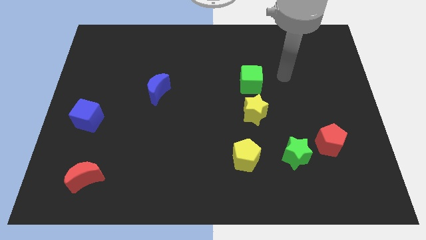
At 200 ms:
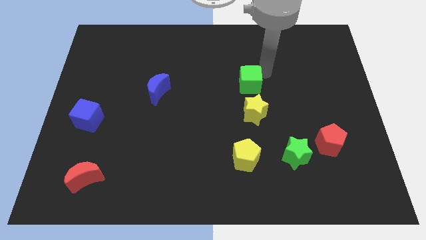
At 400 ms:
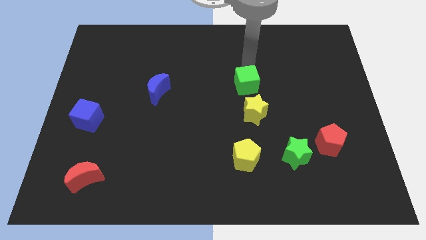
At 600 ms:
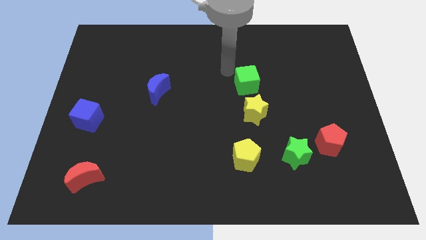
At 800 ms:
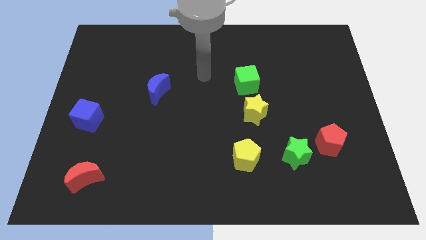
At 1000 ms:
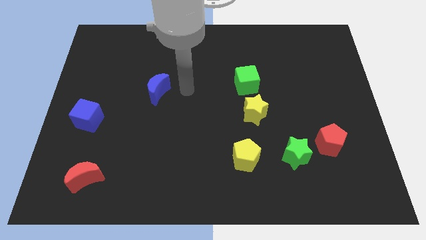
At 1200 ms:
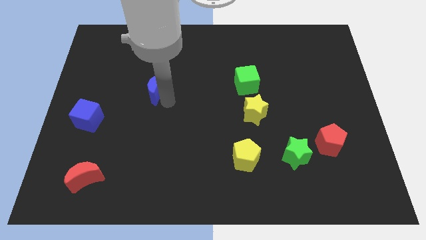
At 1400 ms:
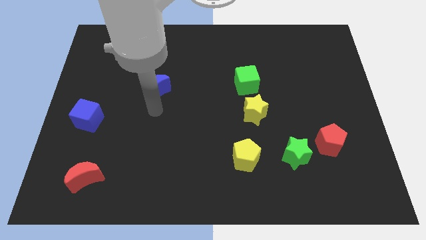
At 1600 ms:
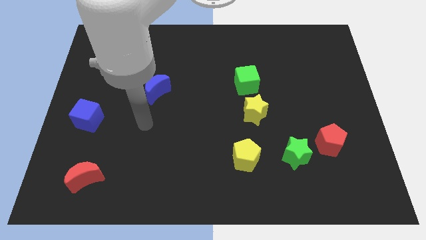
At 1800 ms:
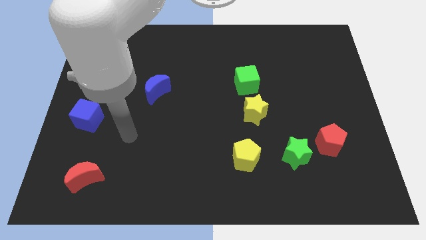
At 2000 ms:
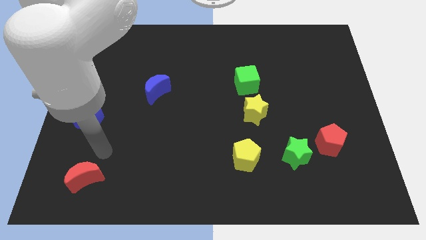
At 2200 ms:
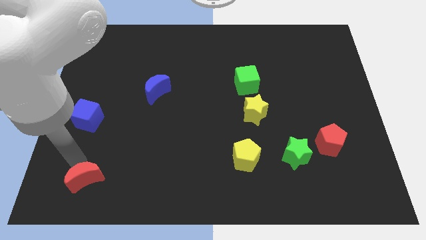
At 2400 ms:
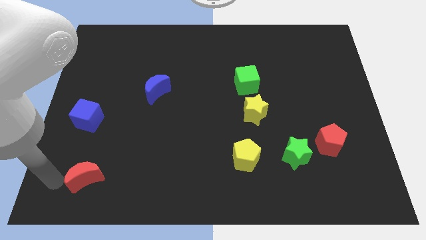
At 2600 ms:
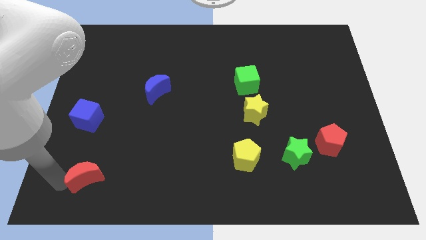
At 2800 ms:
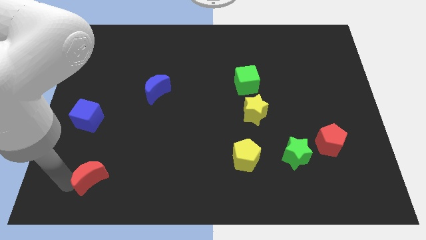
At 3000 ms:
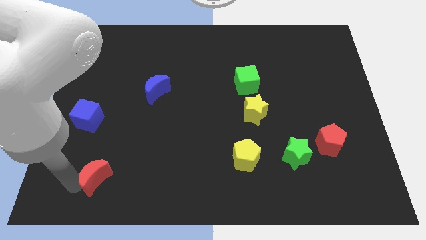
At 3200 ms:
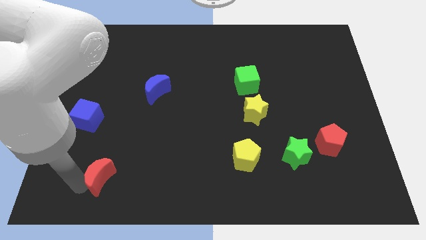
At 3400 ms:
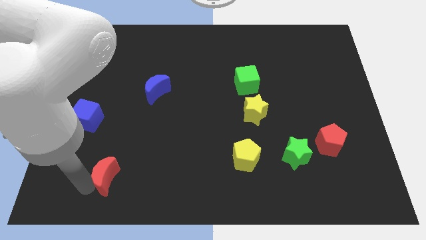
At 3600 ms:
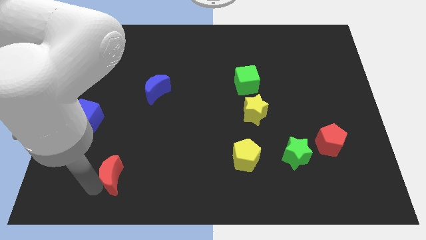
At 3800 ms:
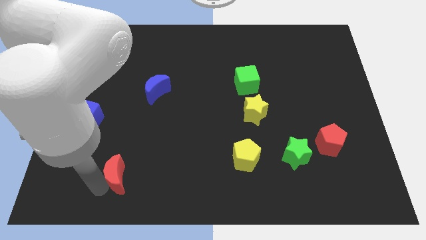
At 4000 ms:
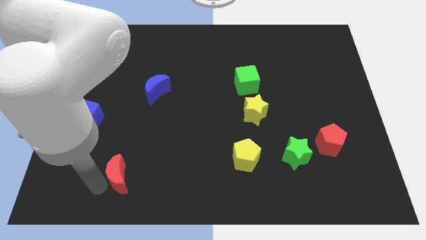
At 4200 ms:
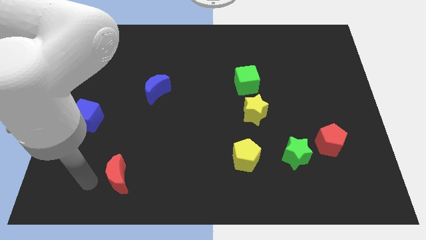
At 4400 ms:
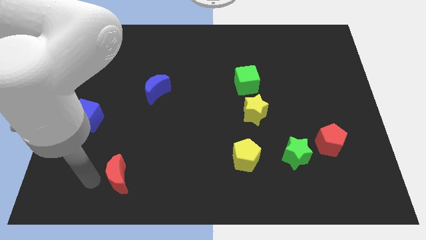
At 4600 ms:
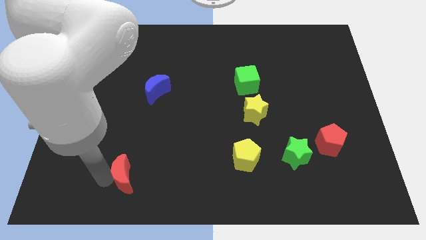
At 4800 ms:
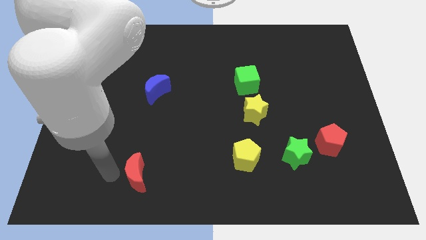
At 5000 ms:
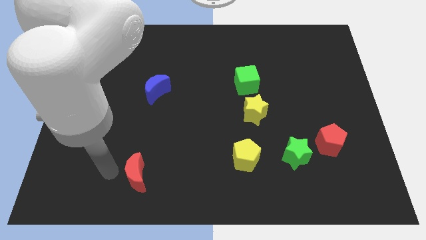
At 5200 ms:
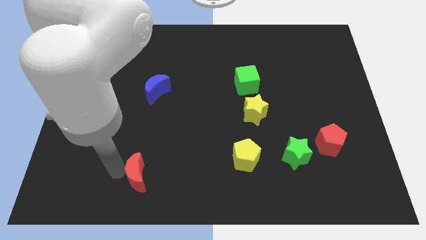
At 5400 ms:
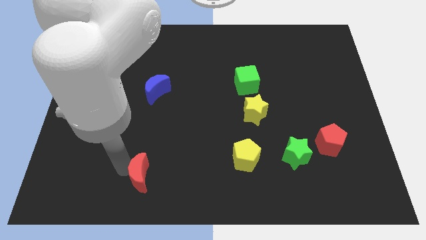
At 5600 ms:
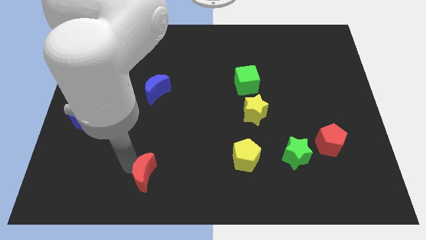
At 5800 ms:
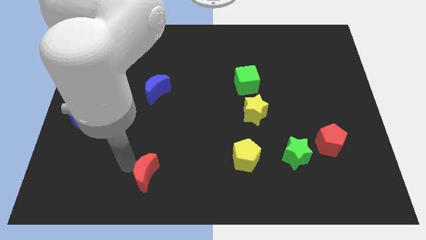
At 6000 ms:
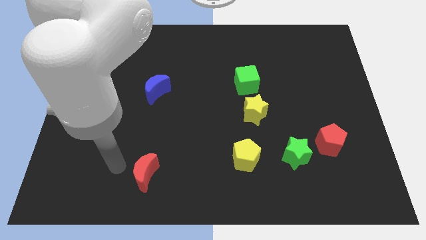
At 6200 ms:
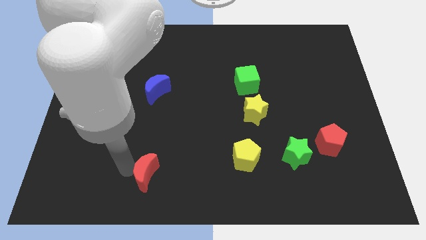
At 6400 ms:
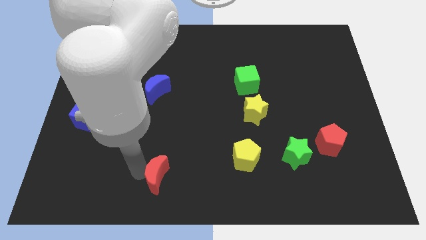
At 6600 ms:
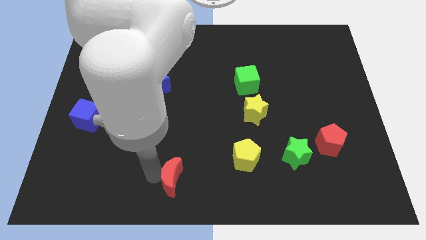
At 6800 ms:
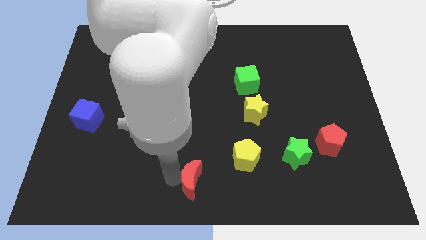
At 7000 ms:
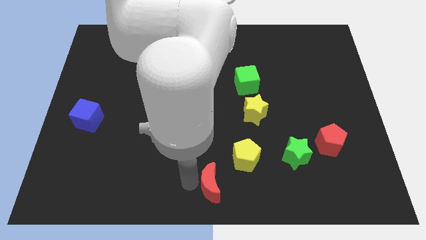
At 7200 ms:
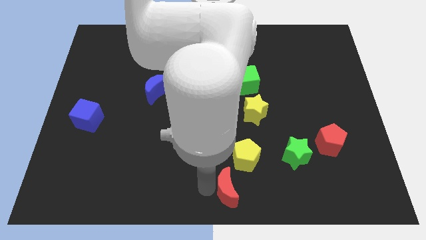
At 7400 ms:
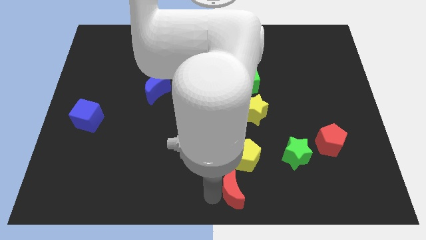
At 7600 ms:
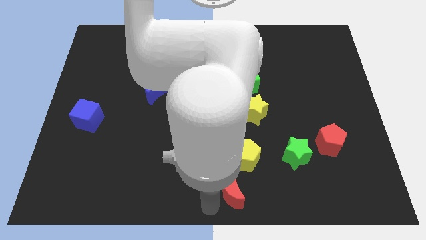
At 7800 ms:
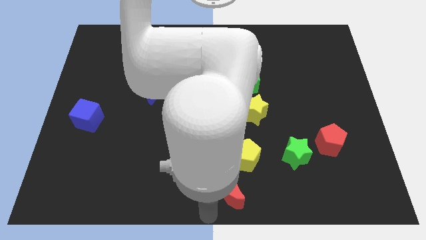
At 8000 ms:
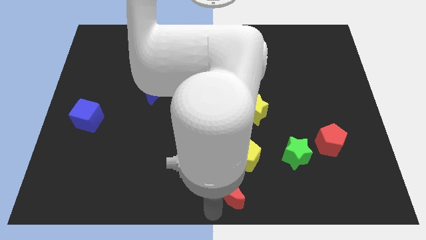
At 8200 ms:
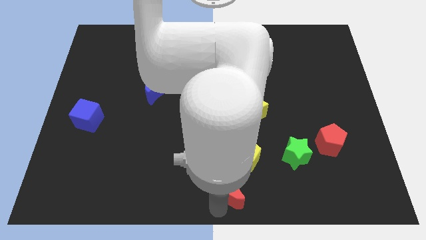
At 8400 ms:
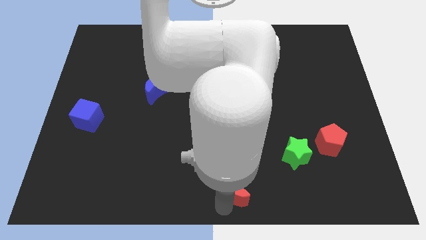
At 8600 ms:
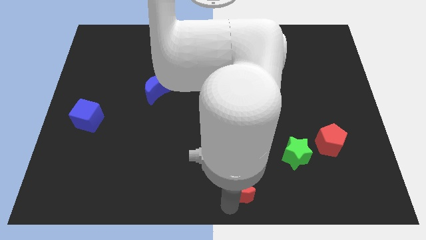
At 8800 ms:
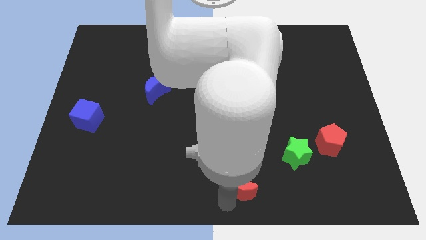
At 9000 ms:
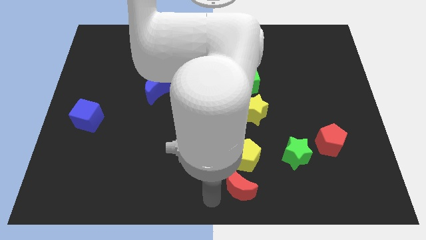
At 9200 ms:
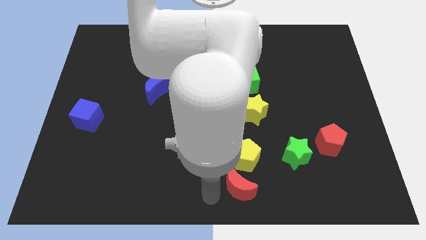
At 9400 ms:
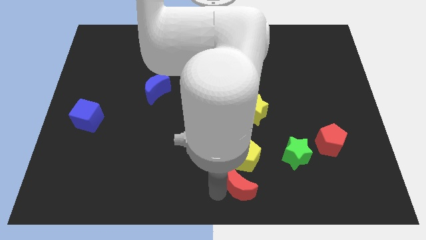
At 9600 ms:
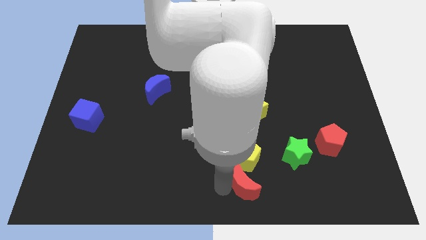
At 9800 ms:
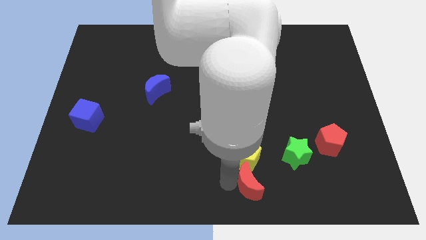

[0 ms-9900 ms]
move the red moon to the bottom left side of the green star

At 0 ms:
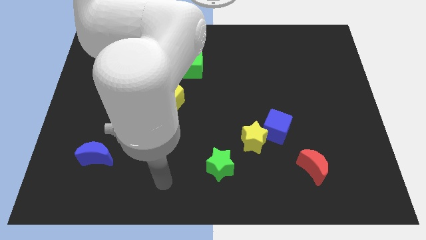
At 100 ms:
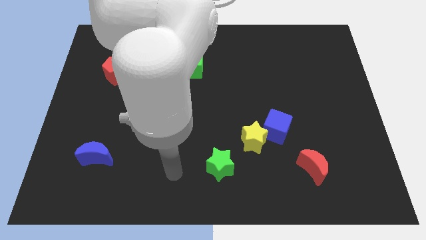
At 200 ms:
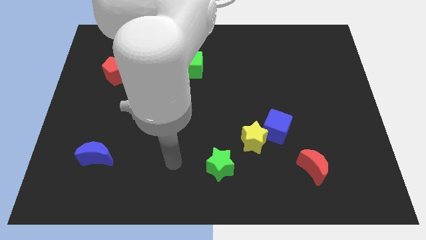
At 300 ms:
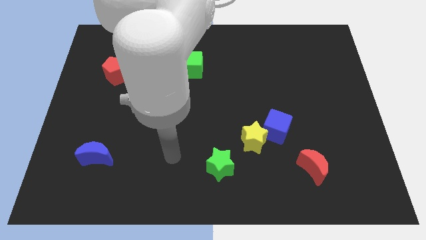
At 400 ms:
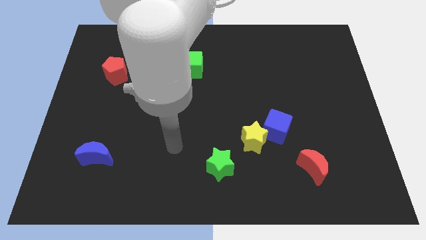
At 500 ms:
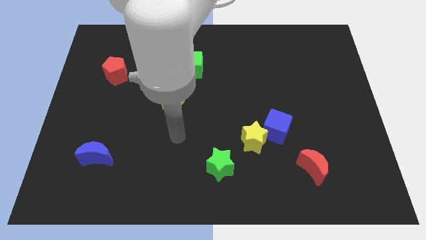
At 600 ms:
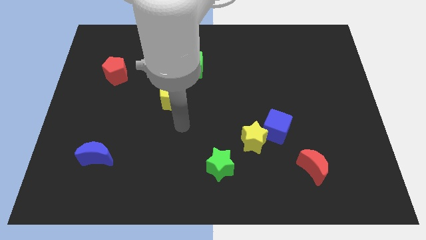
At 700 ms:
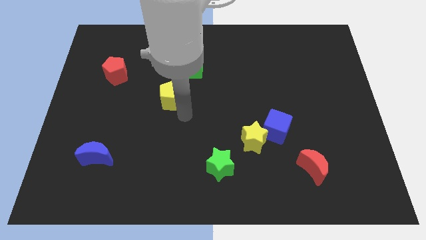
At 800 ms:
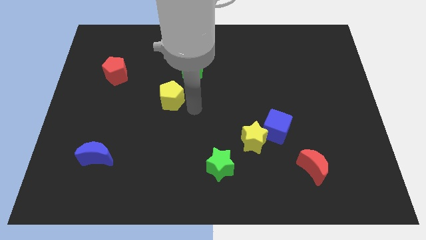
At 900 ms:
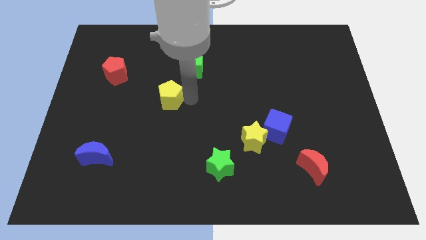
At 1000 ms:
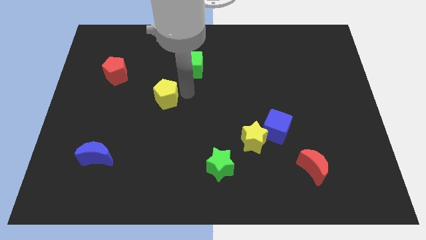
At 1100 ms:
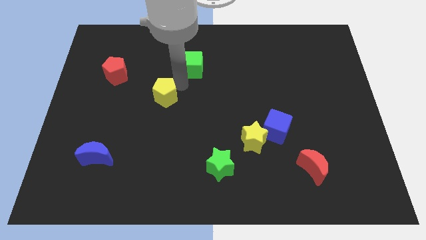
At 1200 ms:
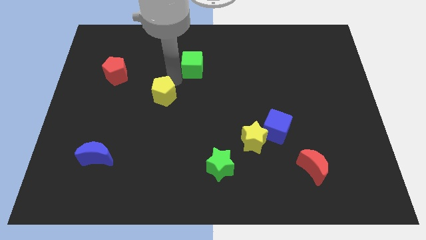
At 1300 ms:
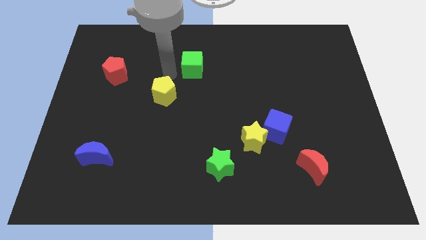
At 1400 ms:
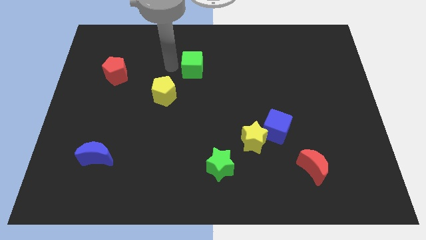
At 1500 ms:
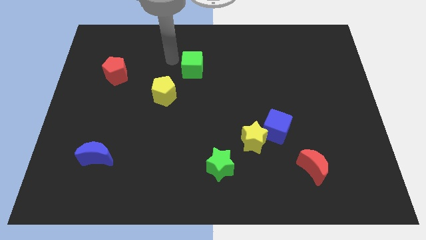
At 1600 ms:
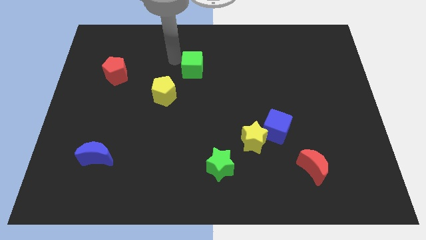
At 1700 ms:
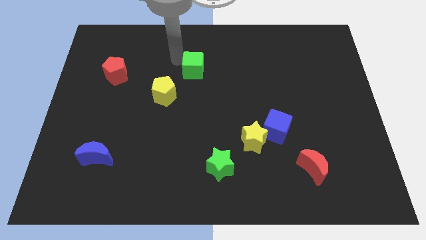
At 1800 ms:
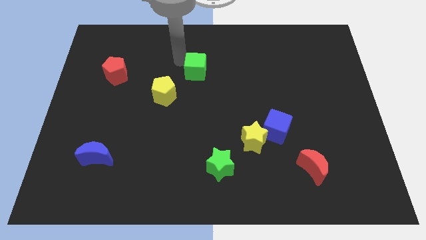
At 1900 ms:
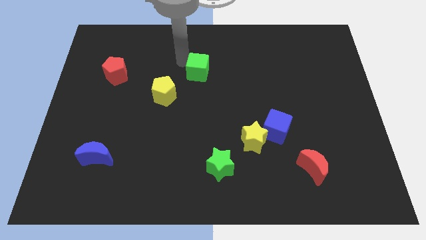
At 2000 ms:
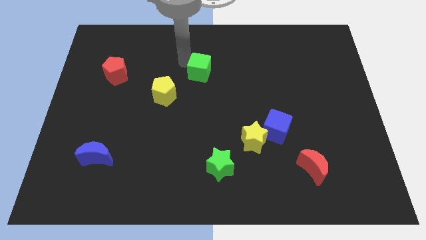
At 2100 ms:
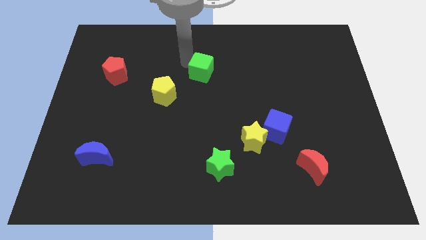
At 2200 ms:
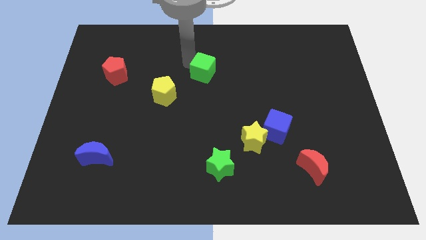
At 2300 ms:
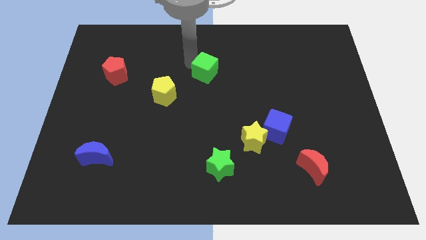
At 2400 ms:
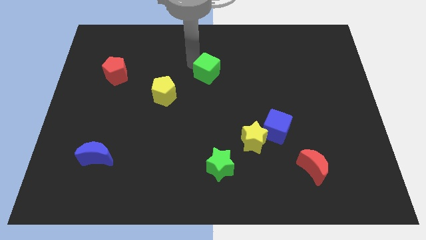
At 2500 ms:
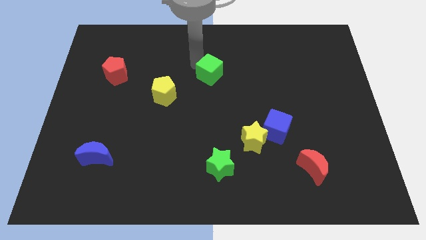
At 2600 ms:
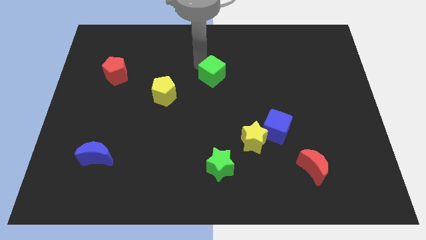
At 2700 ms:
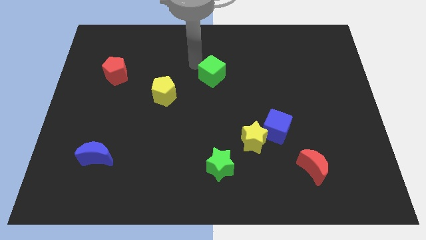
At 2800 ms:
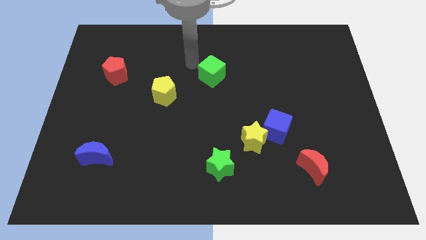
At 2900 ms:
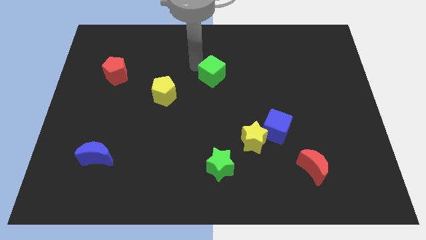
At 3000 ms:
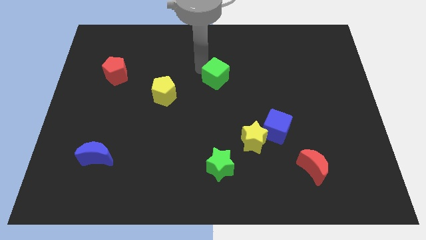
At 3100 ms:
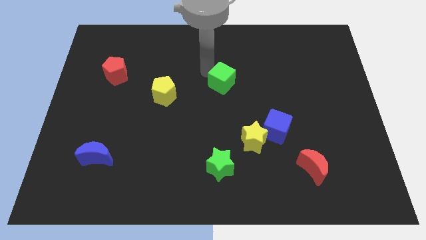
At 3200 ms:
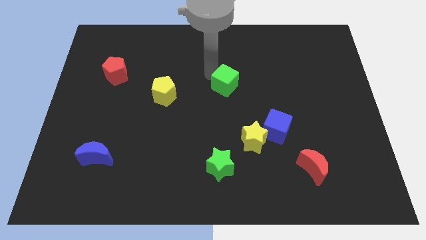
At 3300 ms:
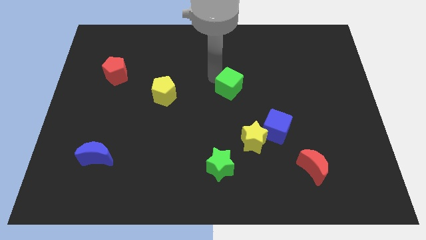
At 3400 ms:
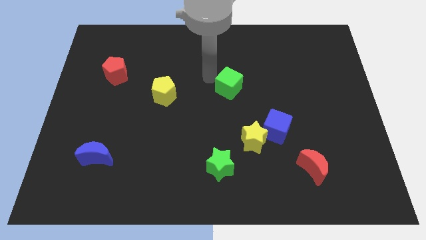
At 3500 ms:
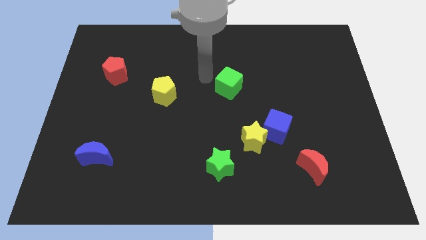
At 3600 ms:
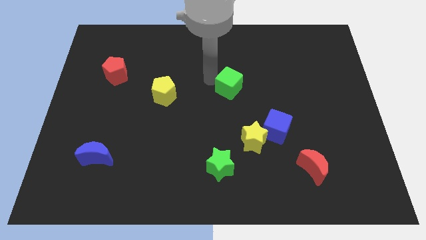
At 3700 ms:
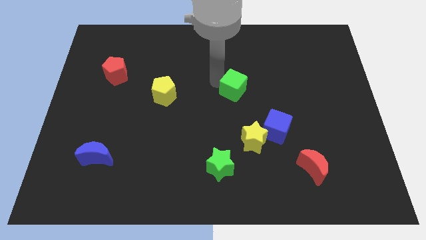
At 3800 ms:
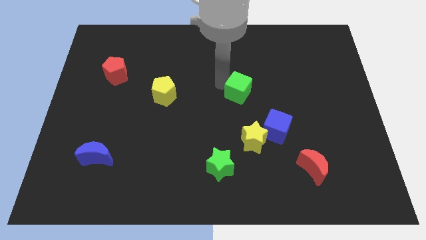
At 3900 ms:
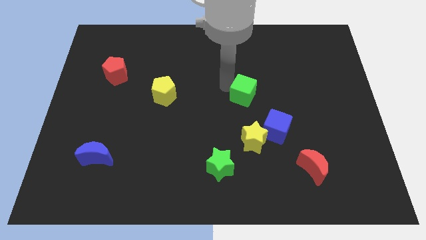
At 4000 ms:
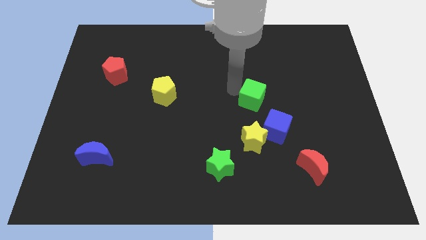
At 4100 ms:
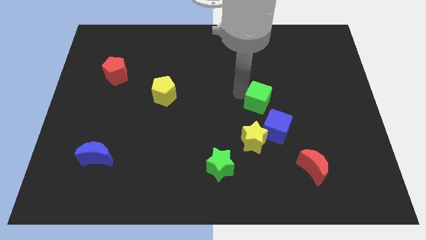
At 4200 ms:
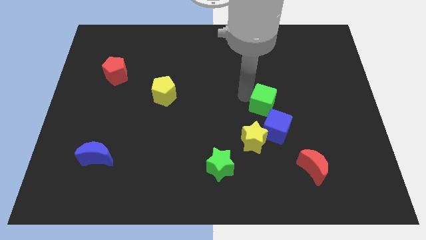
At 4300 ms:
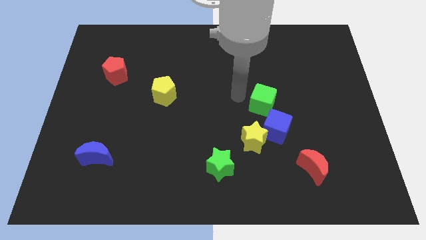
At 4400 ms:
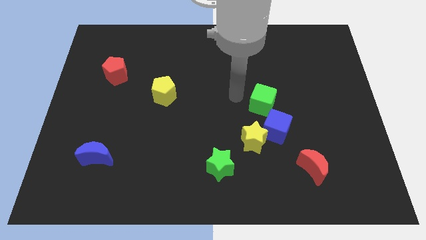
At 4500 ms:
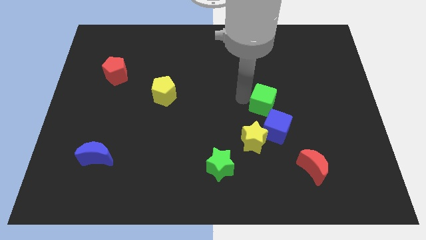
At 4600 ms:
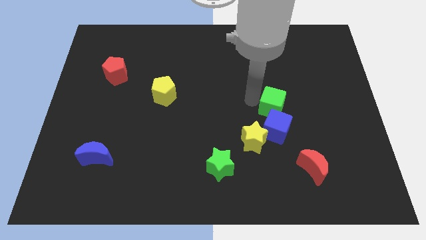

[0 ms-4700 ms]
push the green cube to the top right of the blue cube
